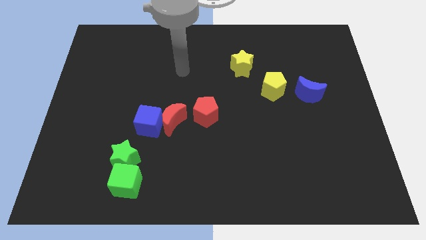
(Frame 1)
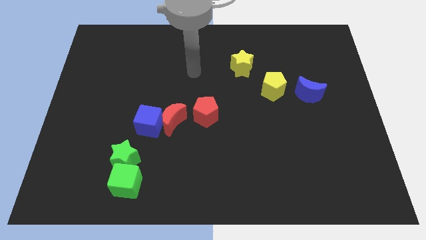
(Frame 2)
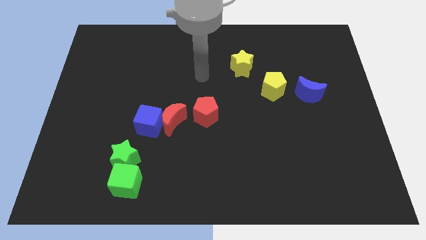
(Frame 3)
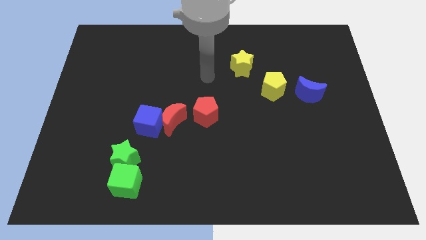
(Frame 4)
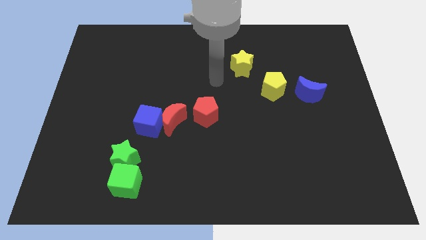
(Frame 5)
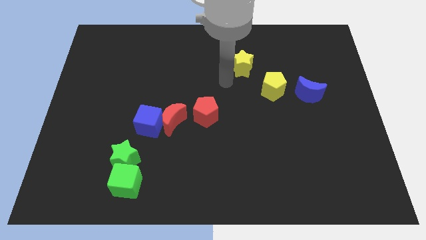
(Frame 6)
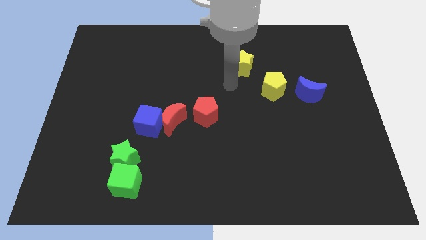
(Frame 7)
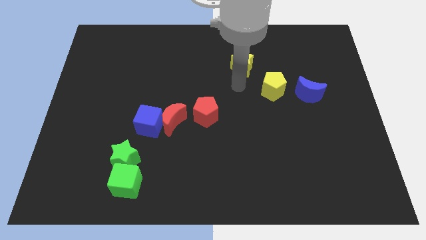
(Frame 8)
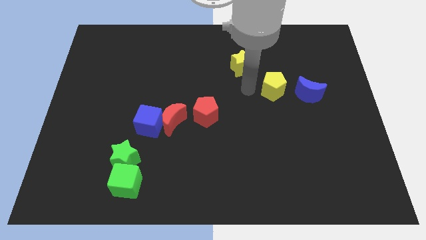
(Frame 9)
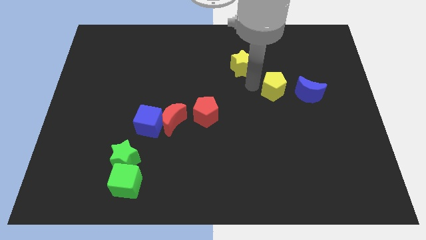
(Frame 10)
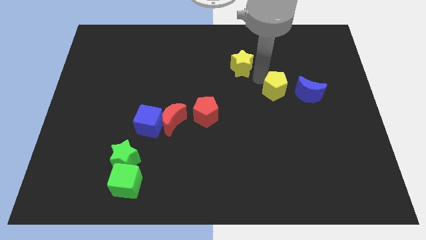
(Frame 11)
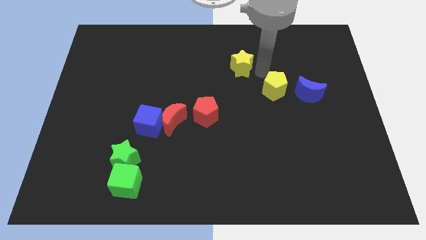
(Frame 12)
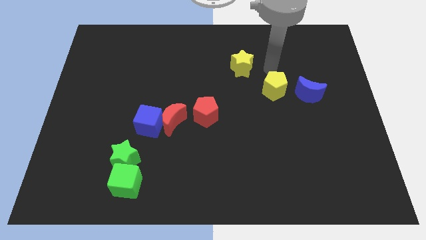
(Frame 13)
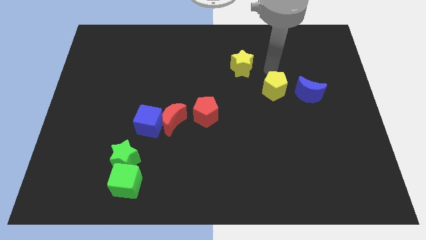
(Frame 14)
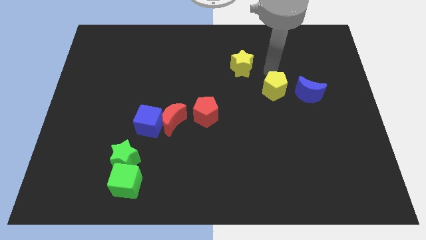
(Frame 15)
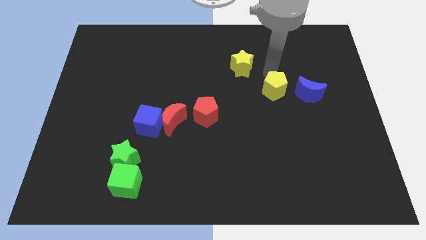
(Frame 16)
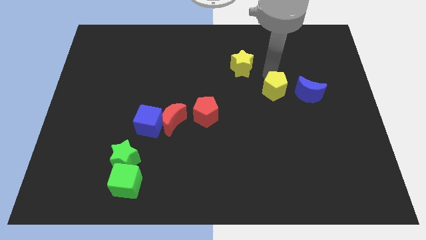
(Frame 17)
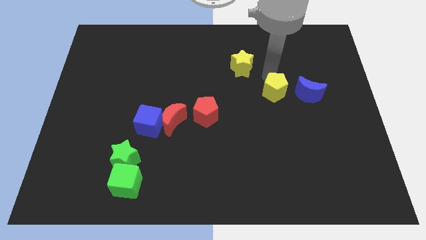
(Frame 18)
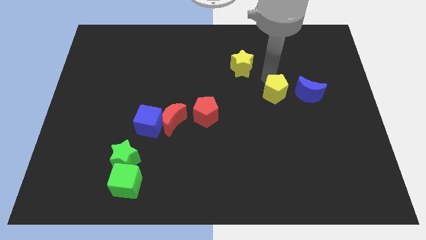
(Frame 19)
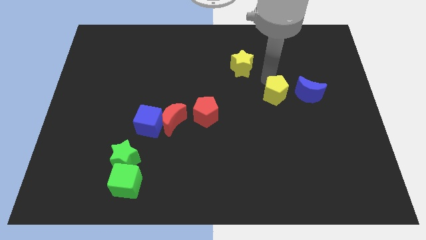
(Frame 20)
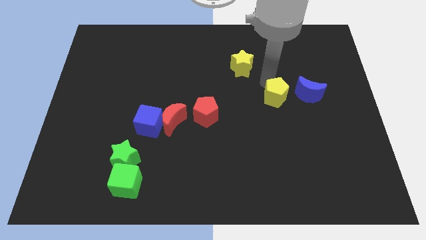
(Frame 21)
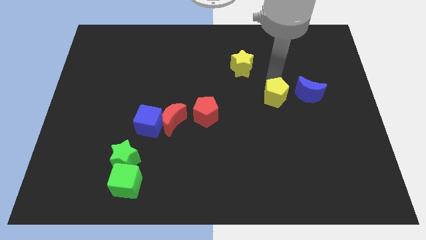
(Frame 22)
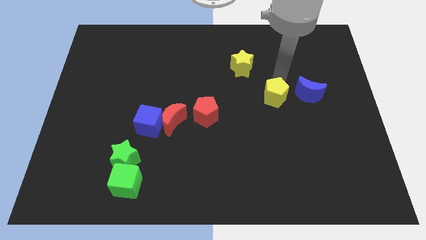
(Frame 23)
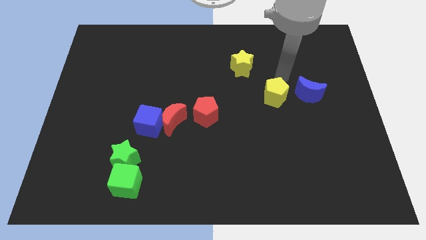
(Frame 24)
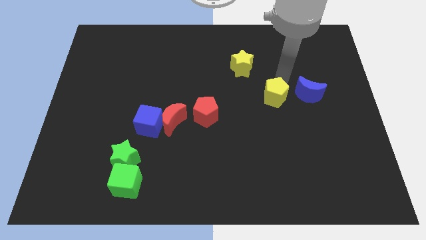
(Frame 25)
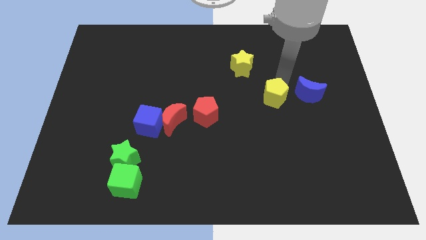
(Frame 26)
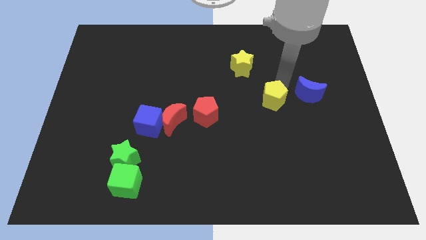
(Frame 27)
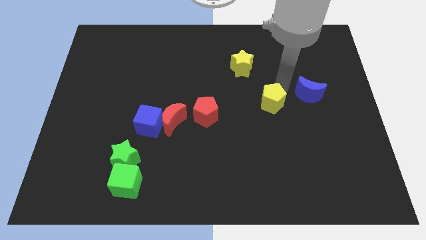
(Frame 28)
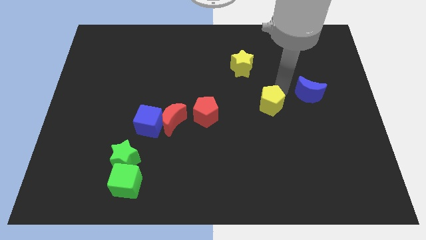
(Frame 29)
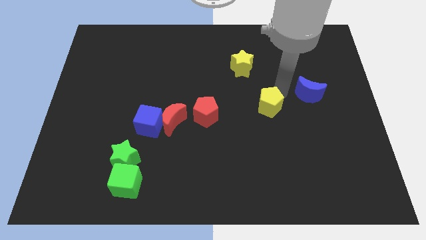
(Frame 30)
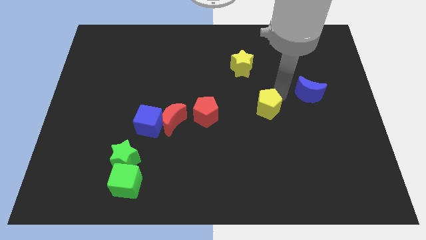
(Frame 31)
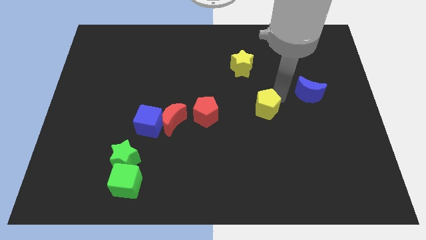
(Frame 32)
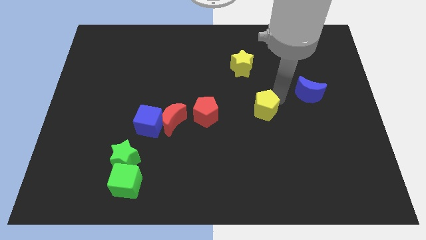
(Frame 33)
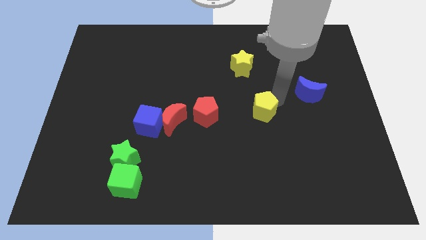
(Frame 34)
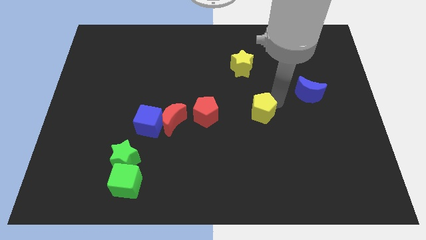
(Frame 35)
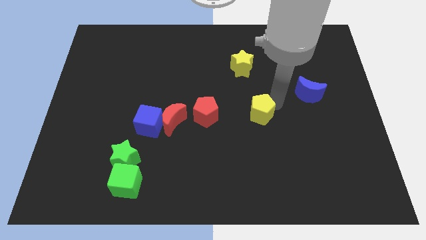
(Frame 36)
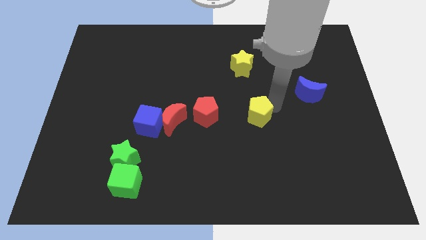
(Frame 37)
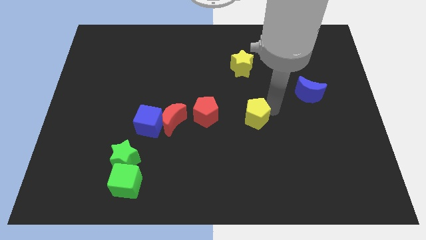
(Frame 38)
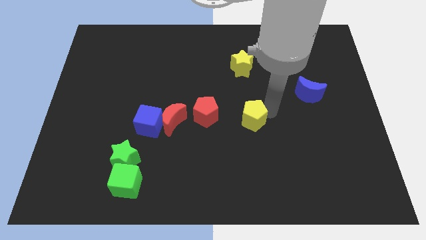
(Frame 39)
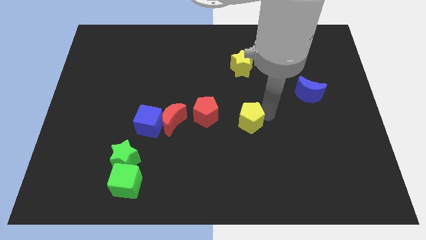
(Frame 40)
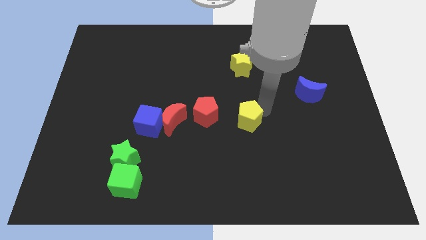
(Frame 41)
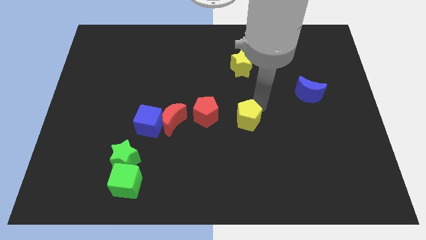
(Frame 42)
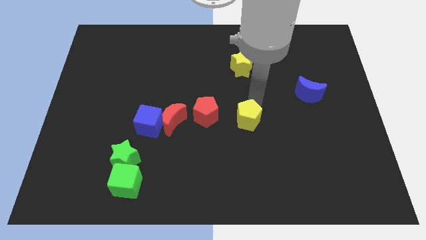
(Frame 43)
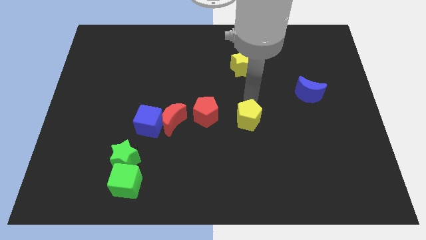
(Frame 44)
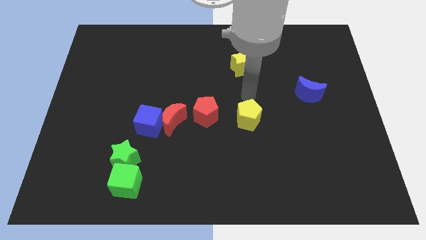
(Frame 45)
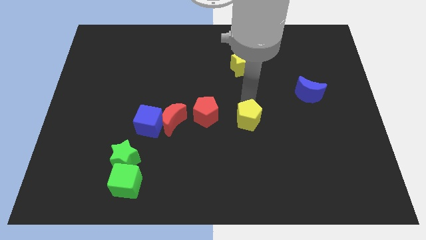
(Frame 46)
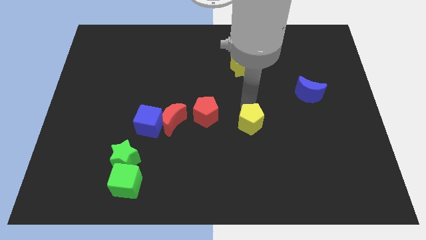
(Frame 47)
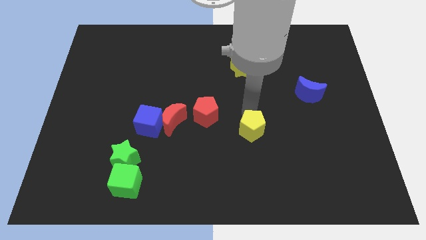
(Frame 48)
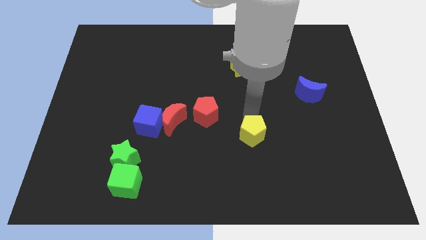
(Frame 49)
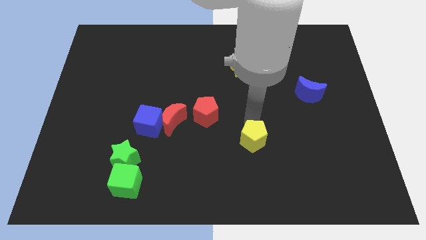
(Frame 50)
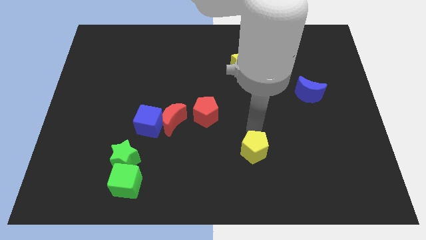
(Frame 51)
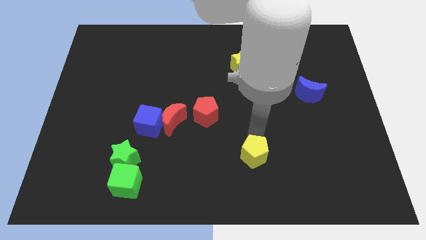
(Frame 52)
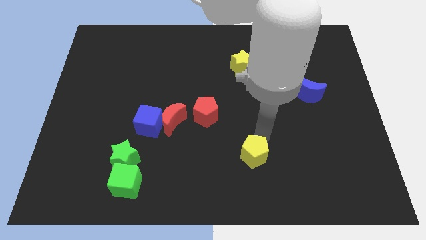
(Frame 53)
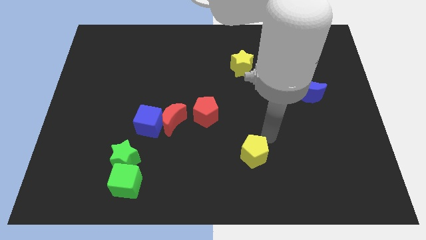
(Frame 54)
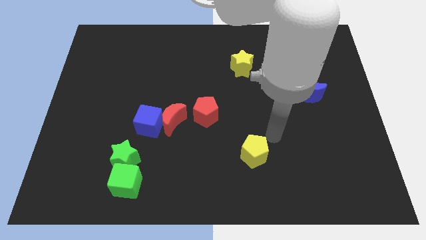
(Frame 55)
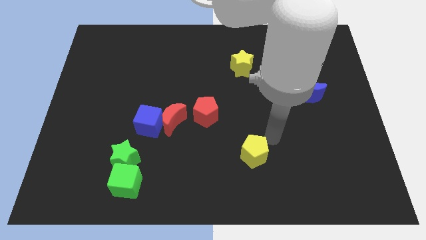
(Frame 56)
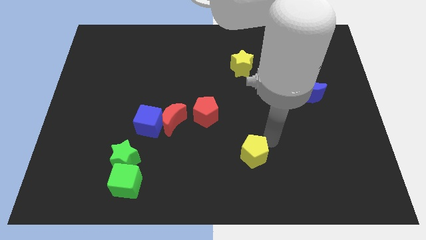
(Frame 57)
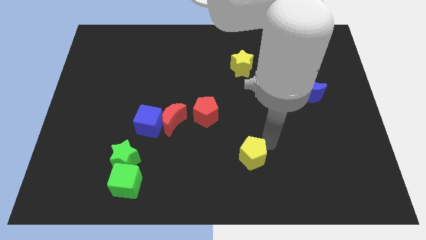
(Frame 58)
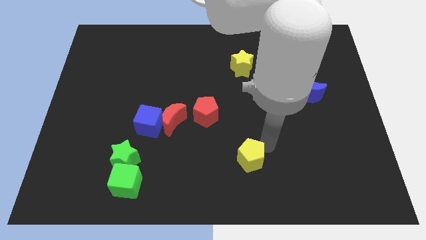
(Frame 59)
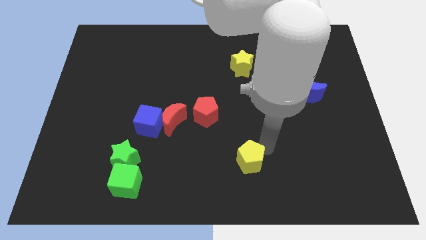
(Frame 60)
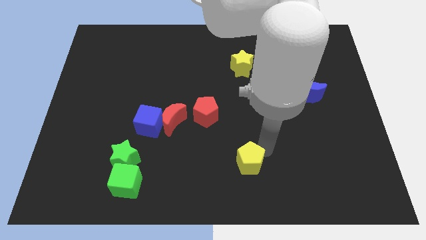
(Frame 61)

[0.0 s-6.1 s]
slide the yellow pentagon to the bottom side

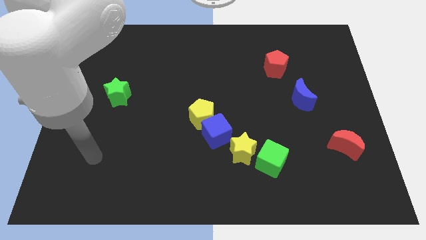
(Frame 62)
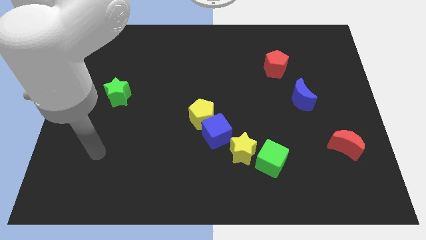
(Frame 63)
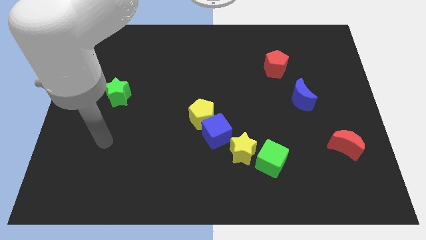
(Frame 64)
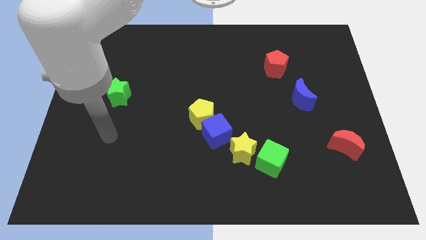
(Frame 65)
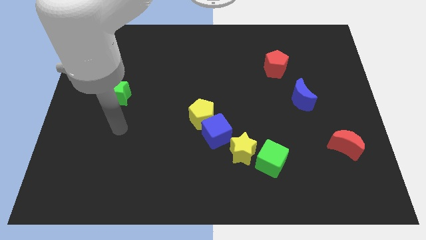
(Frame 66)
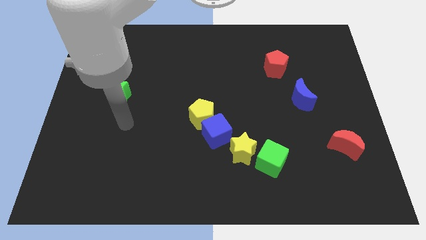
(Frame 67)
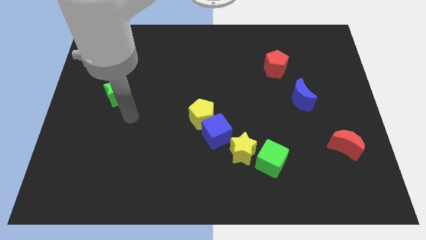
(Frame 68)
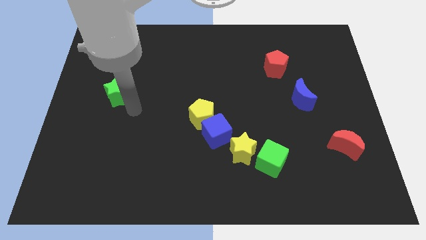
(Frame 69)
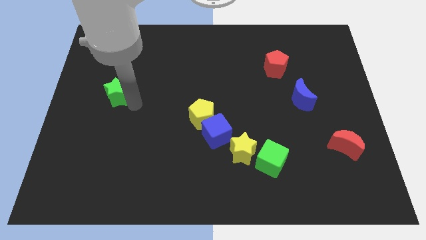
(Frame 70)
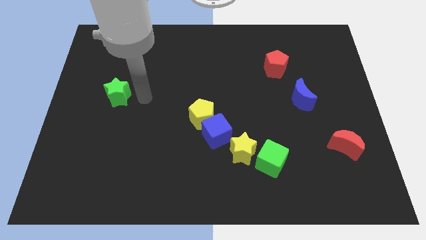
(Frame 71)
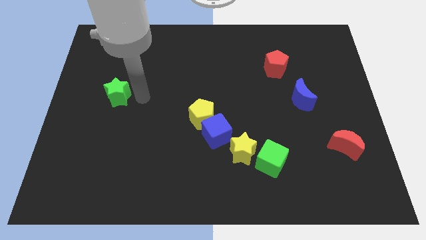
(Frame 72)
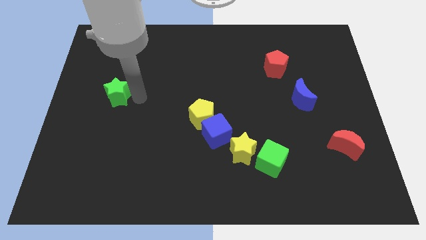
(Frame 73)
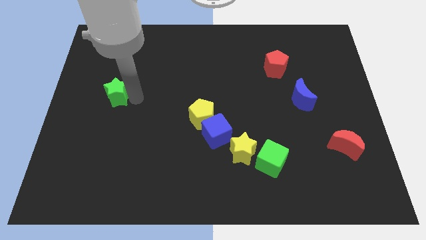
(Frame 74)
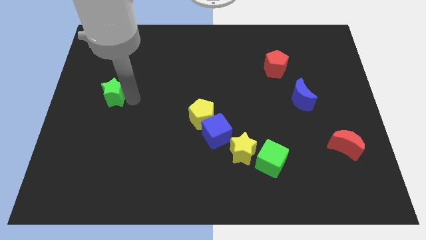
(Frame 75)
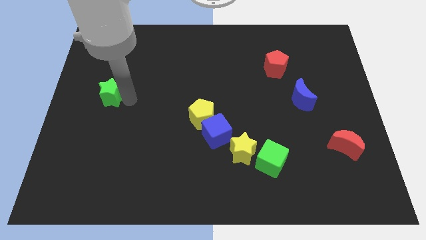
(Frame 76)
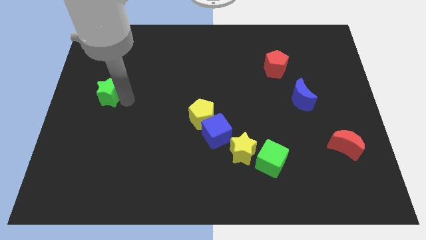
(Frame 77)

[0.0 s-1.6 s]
put the green star to the center left
